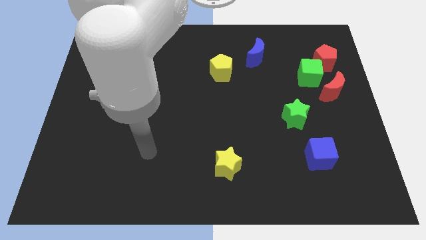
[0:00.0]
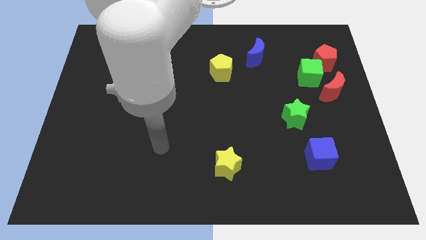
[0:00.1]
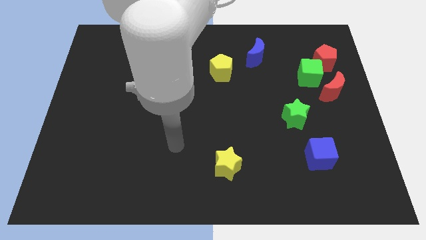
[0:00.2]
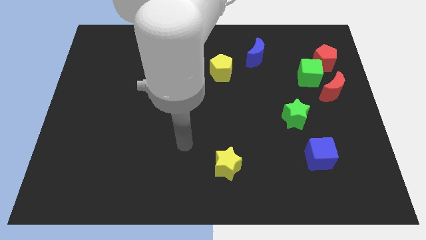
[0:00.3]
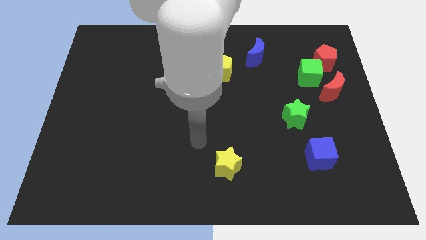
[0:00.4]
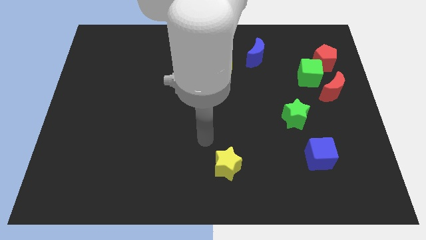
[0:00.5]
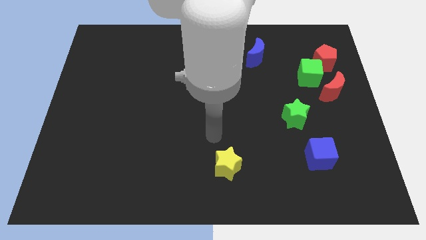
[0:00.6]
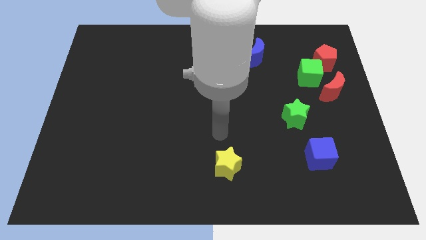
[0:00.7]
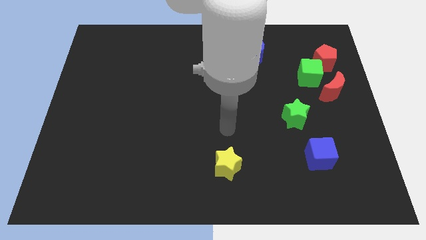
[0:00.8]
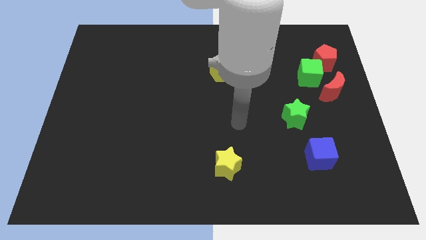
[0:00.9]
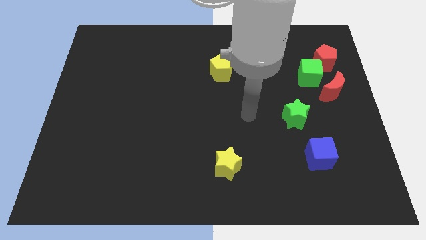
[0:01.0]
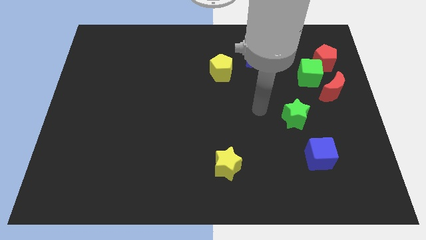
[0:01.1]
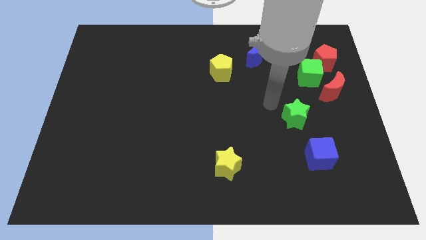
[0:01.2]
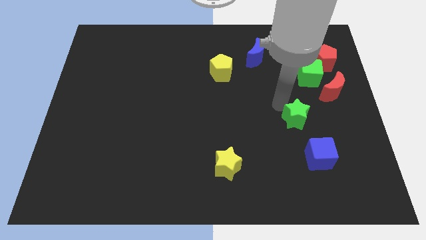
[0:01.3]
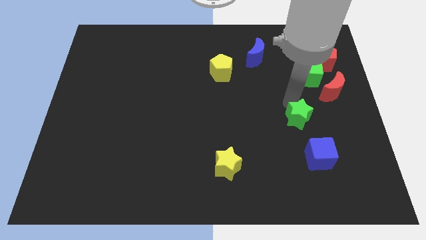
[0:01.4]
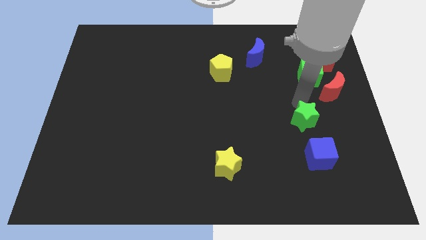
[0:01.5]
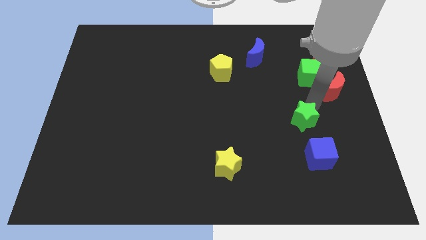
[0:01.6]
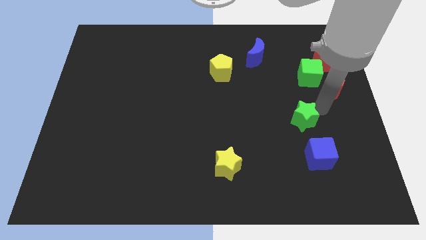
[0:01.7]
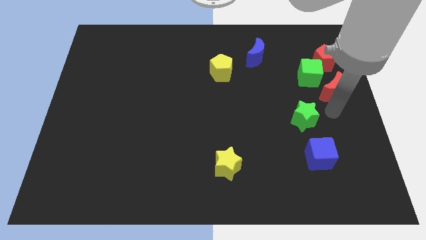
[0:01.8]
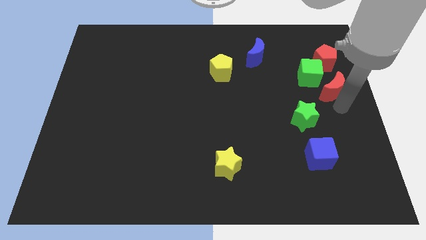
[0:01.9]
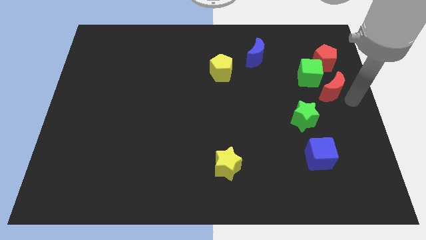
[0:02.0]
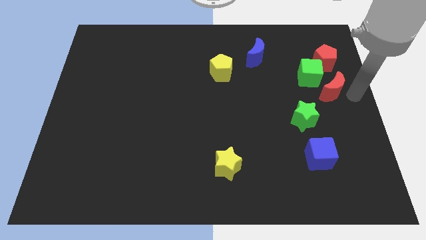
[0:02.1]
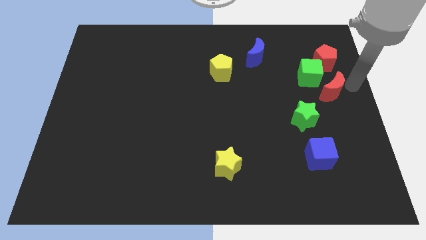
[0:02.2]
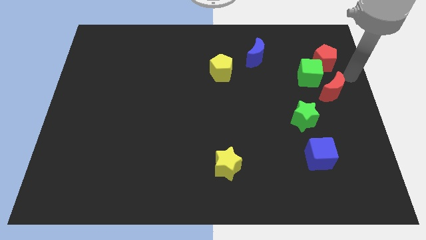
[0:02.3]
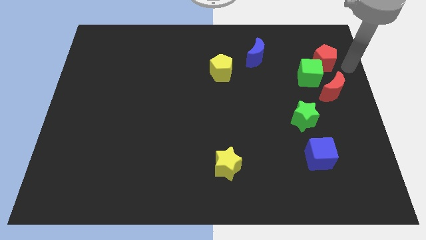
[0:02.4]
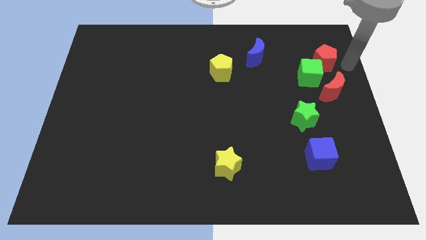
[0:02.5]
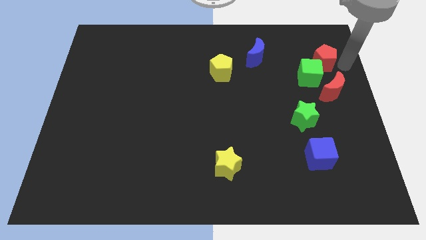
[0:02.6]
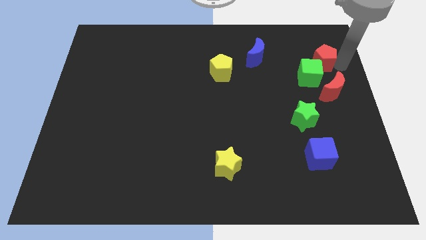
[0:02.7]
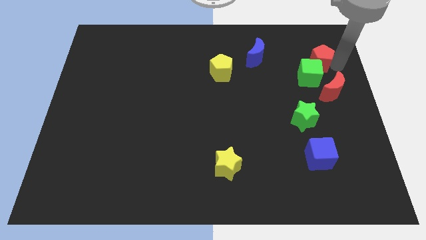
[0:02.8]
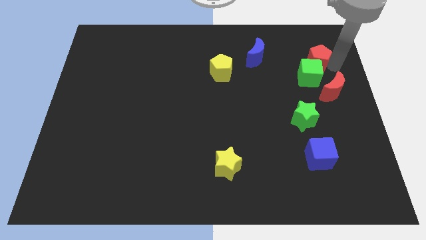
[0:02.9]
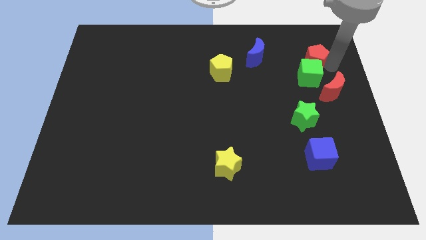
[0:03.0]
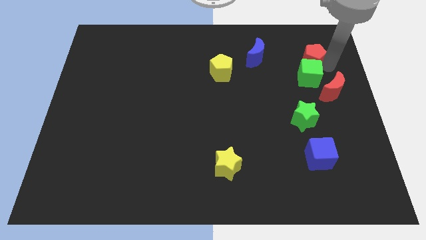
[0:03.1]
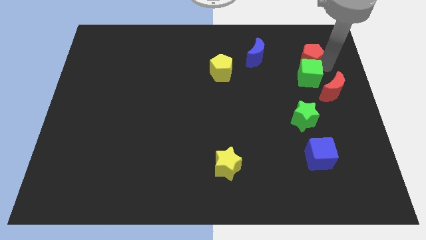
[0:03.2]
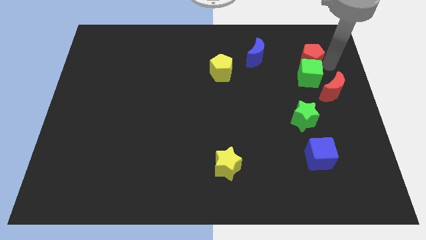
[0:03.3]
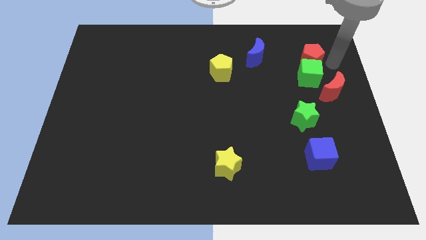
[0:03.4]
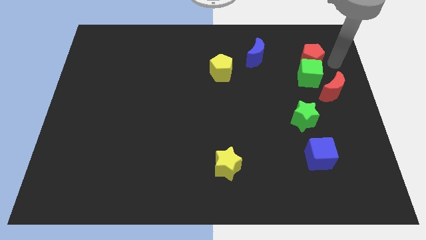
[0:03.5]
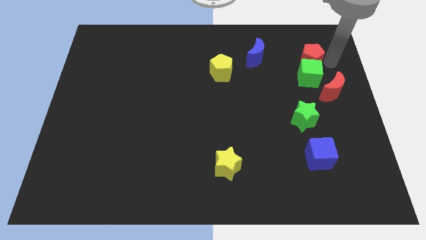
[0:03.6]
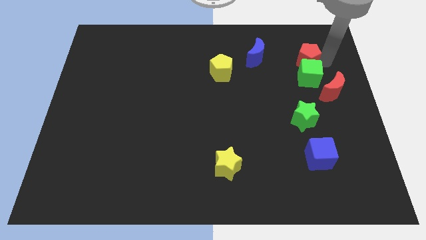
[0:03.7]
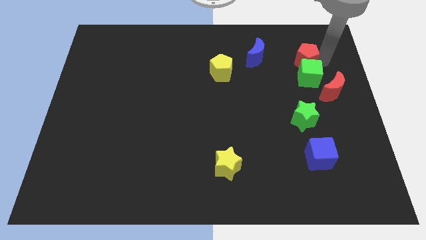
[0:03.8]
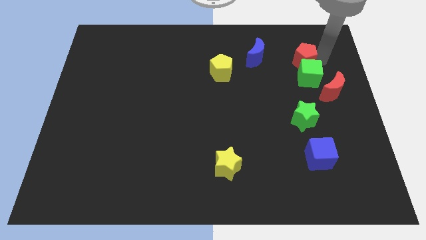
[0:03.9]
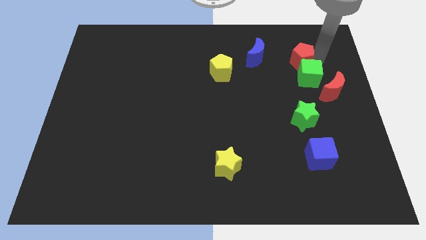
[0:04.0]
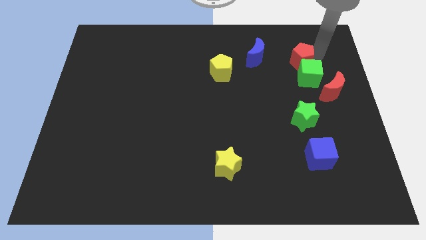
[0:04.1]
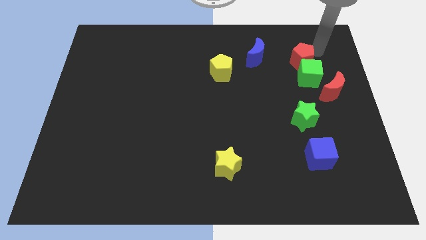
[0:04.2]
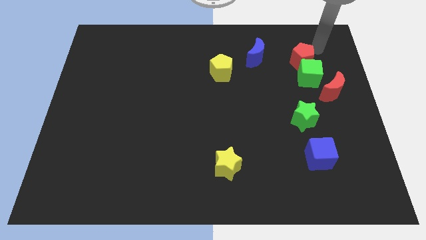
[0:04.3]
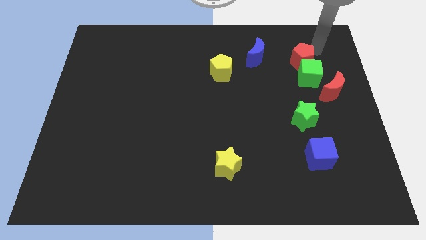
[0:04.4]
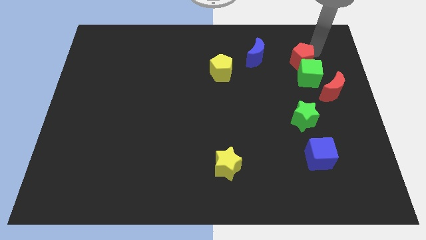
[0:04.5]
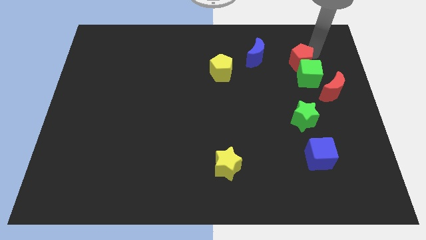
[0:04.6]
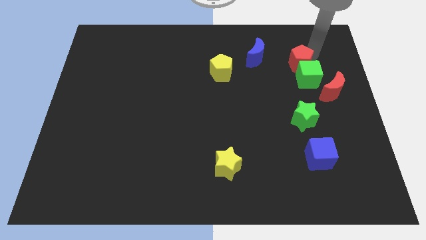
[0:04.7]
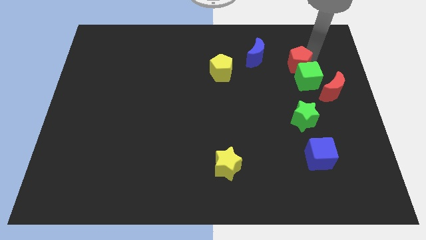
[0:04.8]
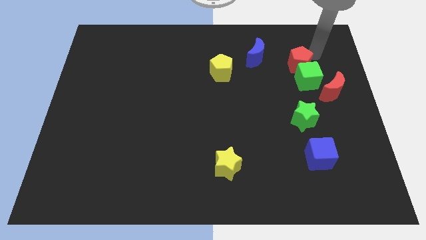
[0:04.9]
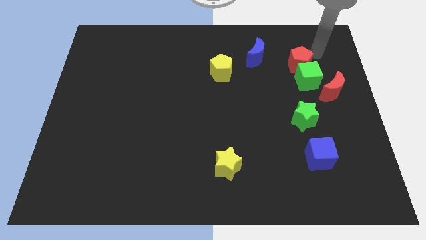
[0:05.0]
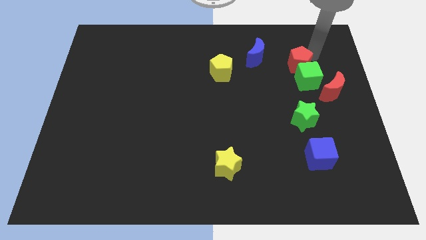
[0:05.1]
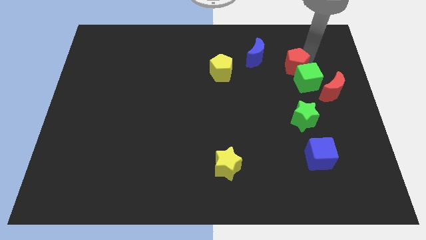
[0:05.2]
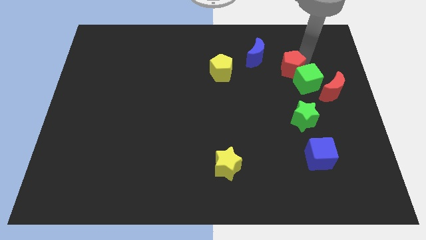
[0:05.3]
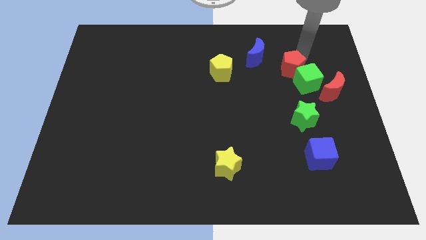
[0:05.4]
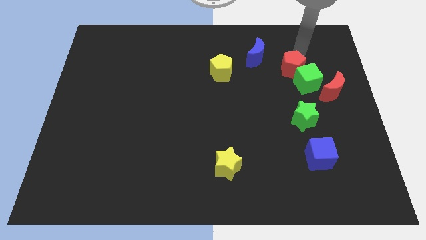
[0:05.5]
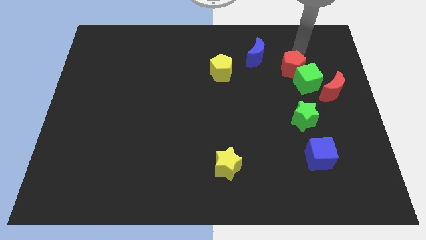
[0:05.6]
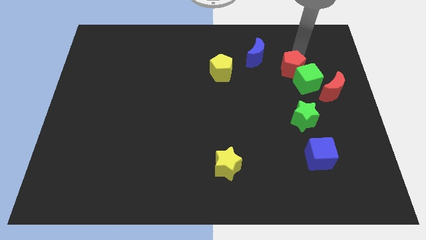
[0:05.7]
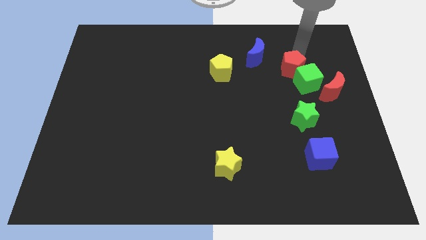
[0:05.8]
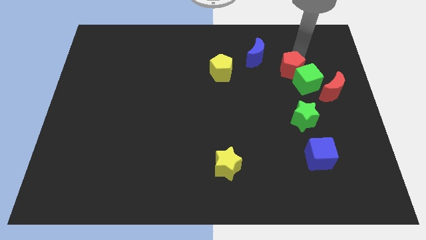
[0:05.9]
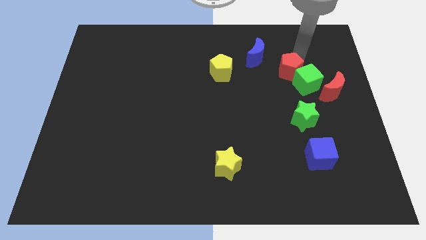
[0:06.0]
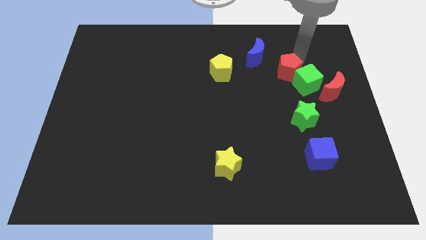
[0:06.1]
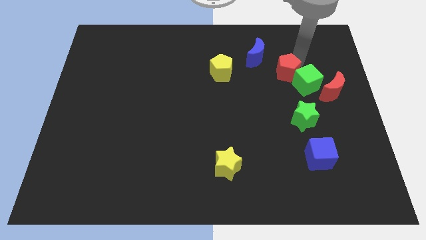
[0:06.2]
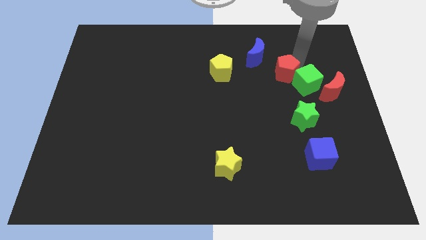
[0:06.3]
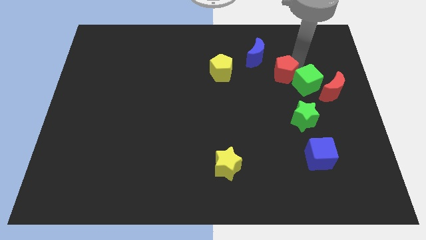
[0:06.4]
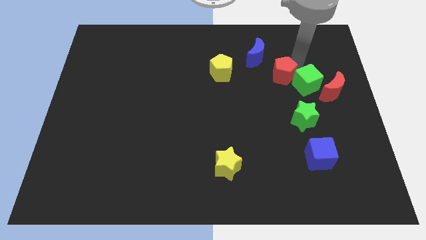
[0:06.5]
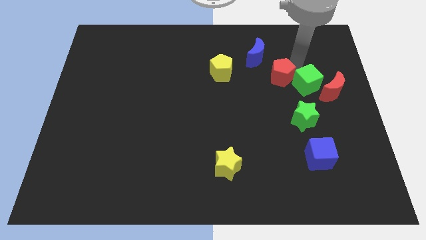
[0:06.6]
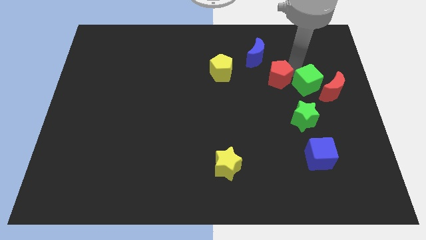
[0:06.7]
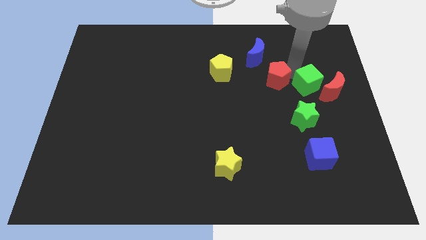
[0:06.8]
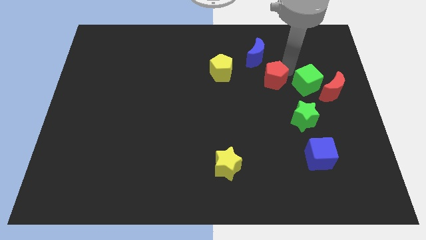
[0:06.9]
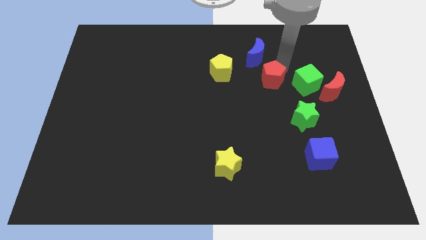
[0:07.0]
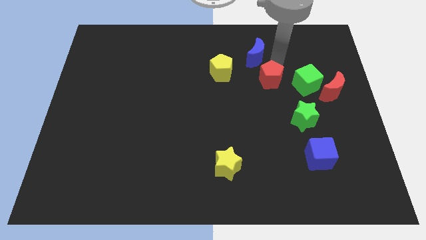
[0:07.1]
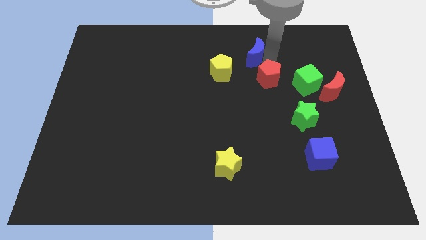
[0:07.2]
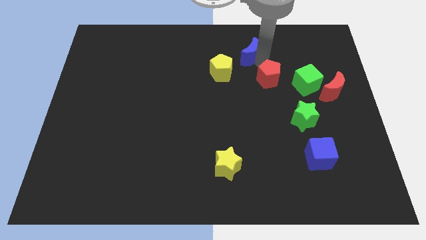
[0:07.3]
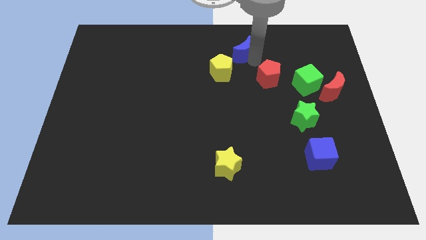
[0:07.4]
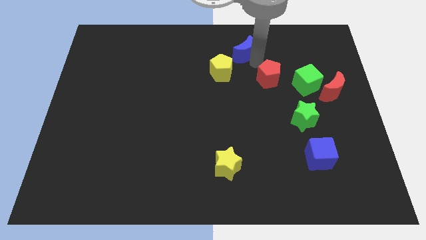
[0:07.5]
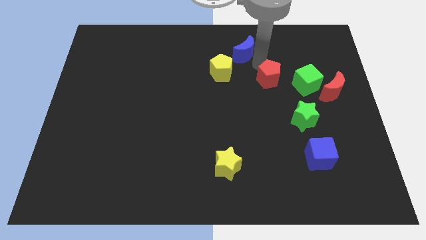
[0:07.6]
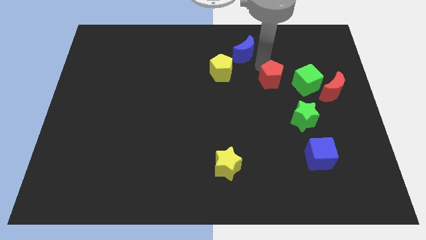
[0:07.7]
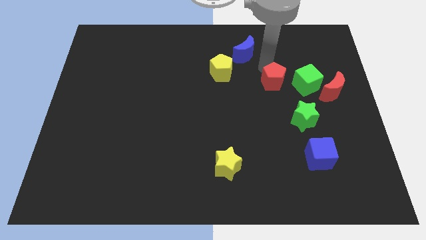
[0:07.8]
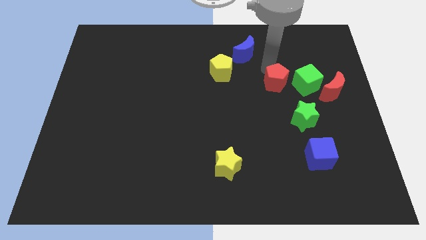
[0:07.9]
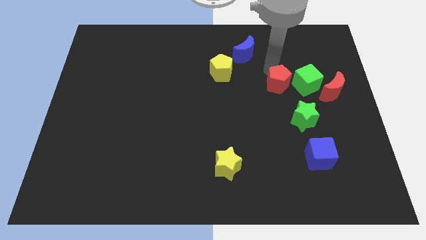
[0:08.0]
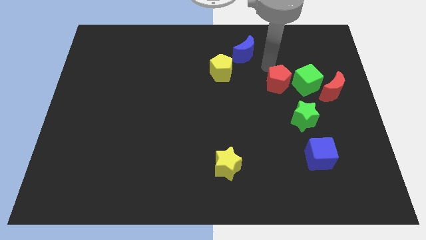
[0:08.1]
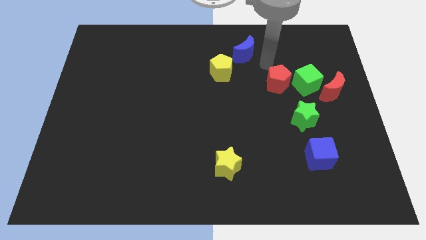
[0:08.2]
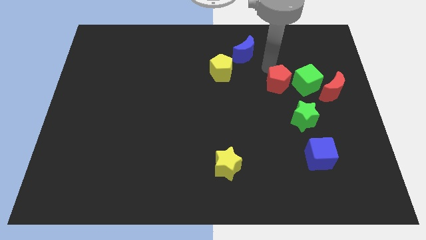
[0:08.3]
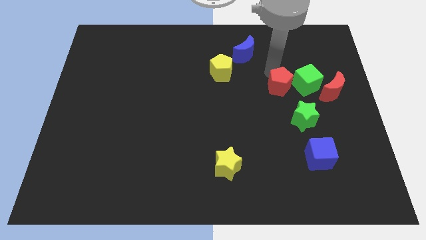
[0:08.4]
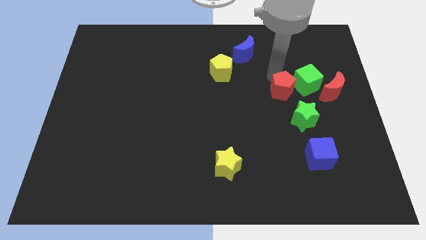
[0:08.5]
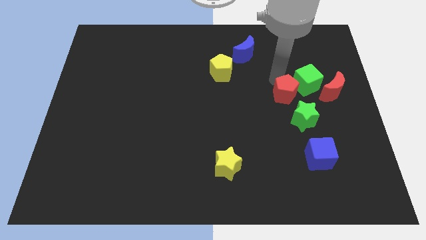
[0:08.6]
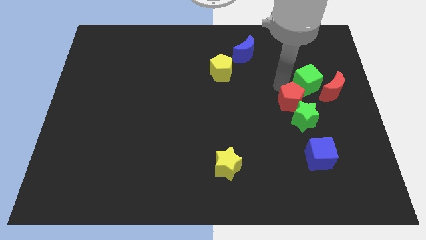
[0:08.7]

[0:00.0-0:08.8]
push the red pentagon towards the green star
